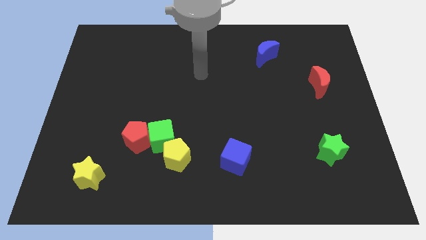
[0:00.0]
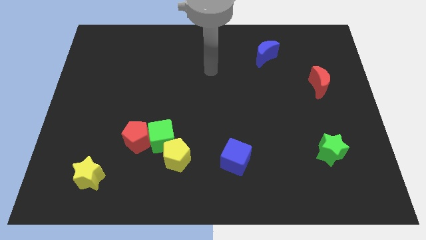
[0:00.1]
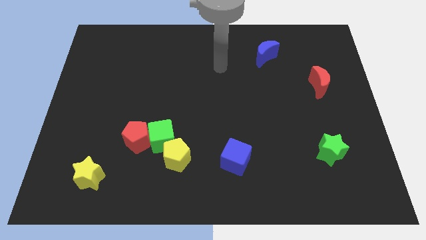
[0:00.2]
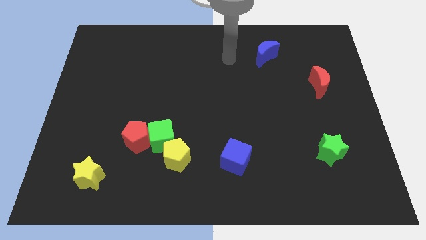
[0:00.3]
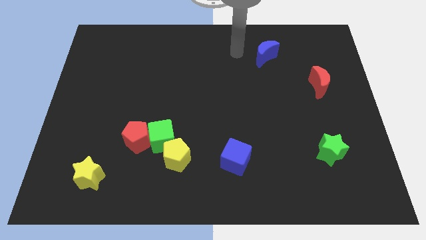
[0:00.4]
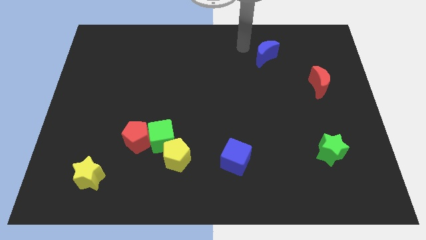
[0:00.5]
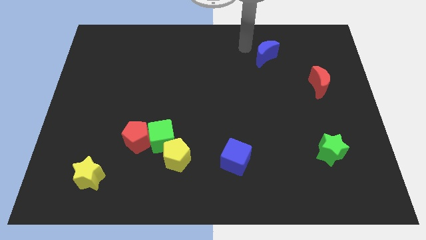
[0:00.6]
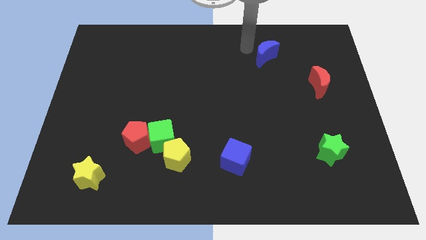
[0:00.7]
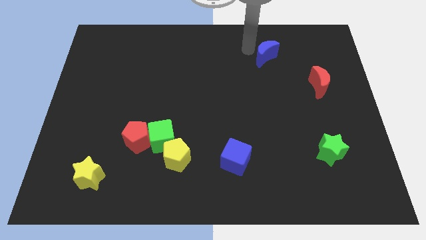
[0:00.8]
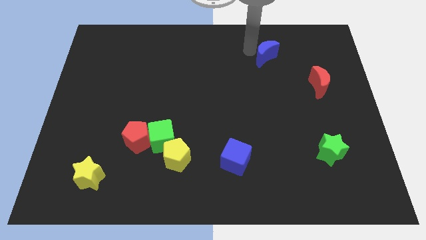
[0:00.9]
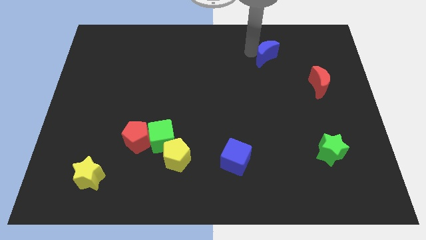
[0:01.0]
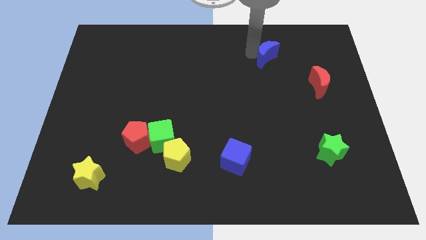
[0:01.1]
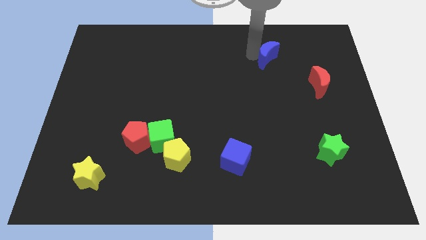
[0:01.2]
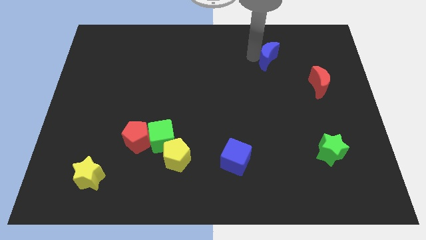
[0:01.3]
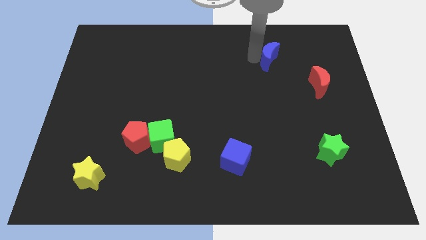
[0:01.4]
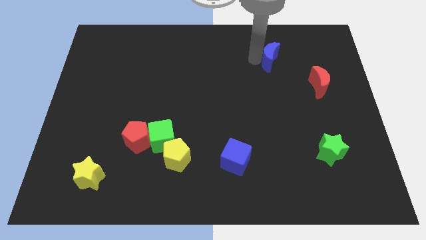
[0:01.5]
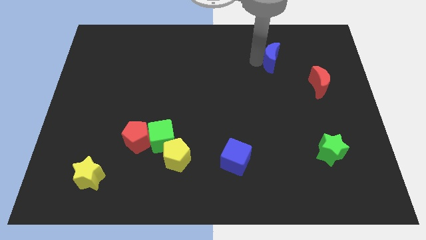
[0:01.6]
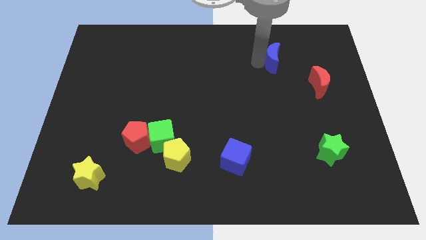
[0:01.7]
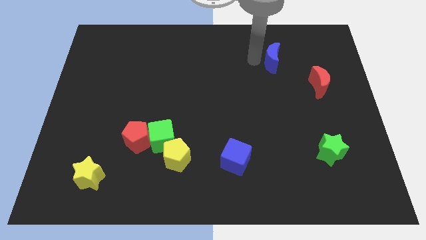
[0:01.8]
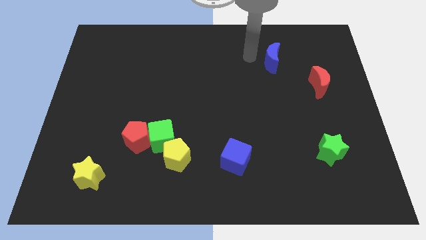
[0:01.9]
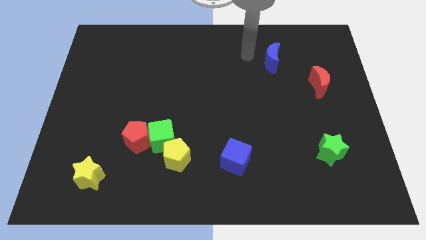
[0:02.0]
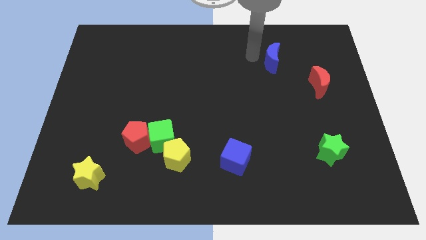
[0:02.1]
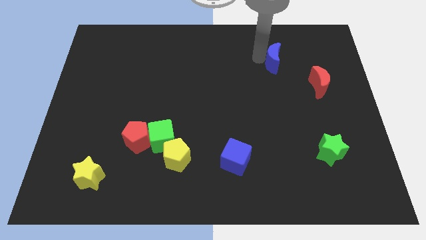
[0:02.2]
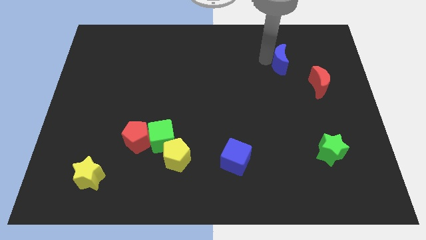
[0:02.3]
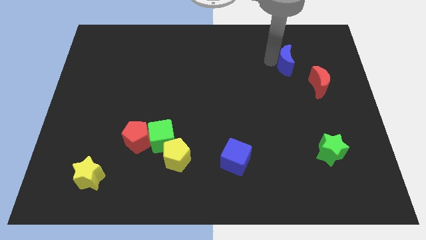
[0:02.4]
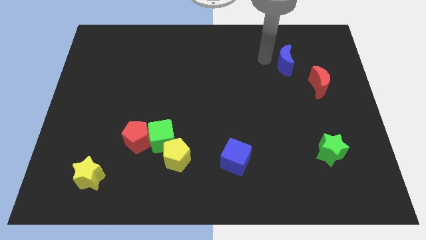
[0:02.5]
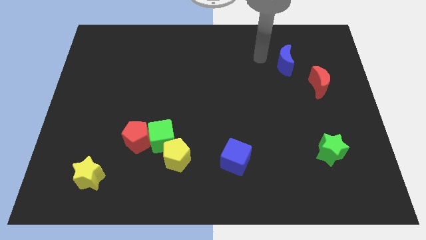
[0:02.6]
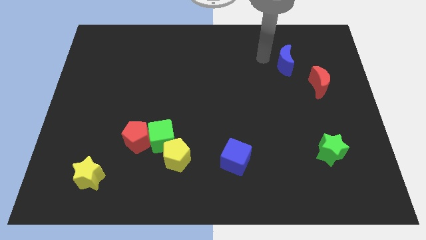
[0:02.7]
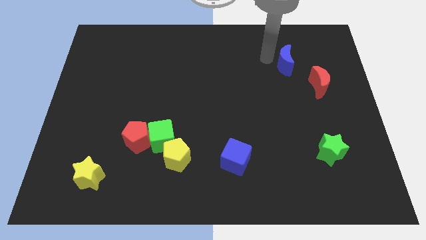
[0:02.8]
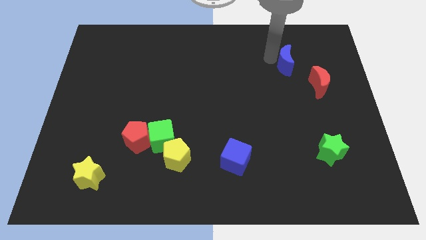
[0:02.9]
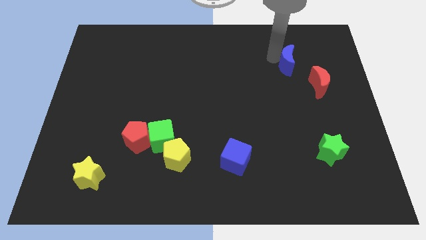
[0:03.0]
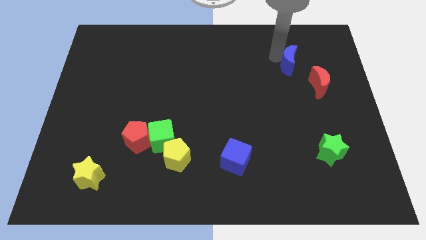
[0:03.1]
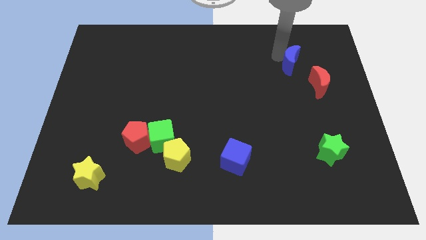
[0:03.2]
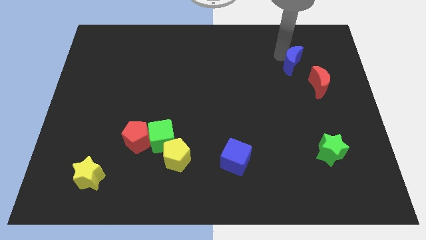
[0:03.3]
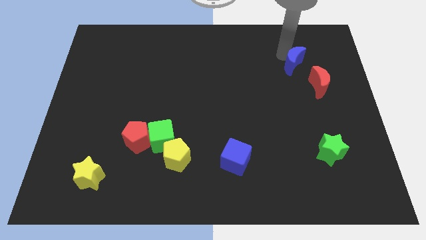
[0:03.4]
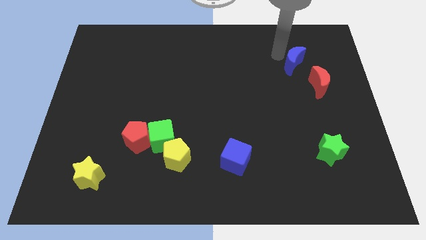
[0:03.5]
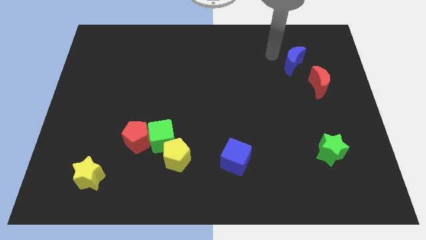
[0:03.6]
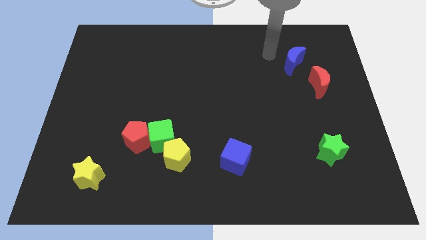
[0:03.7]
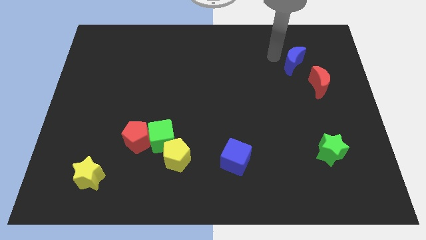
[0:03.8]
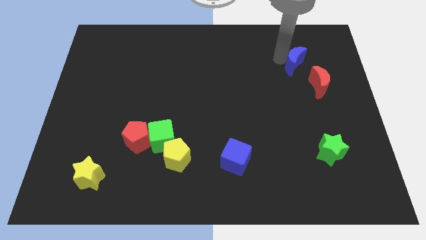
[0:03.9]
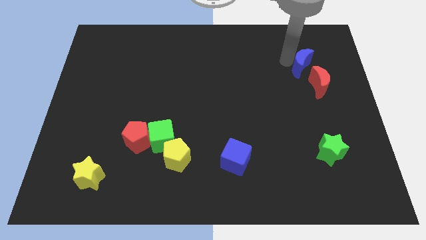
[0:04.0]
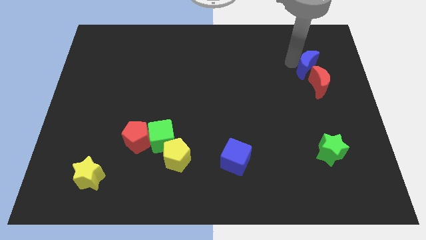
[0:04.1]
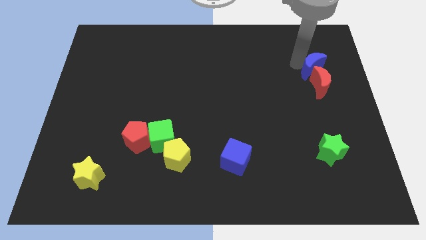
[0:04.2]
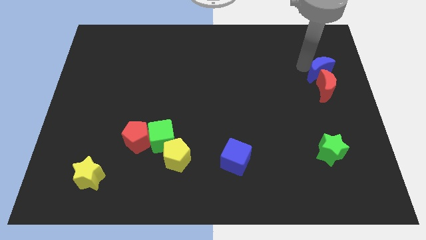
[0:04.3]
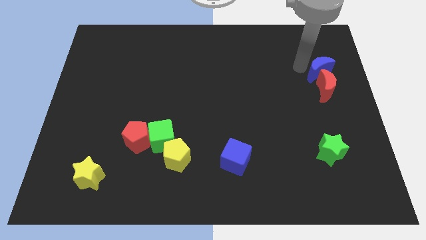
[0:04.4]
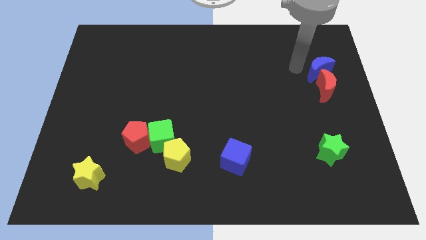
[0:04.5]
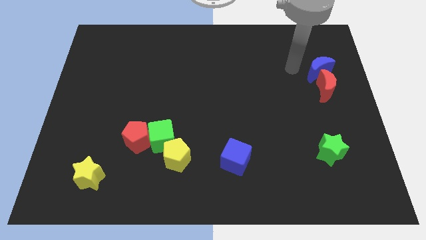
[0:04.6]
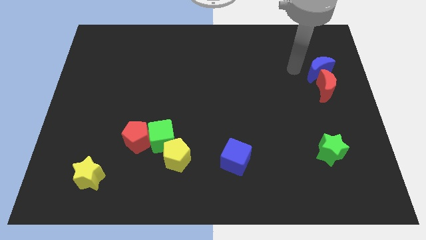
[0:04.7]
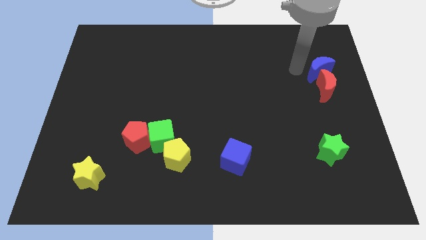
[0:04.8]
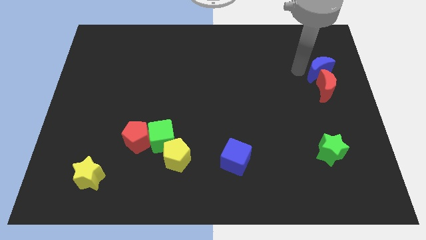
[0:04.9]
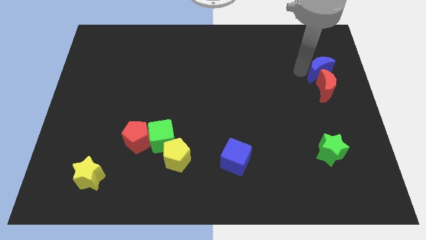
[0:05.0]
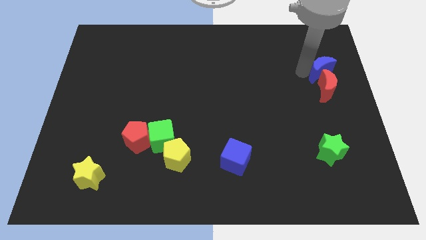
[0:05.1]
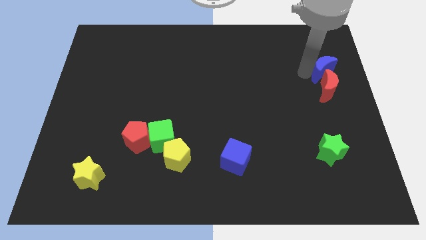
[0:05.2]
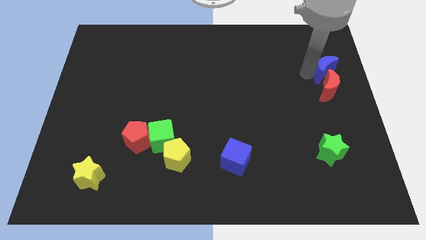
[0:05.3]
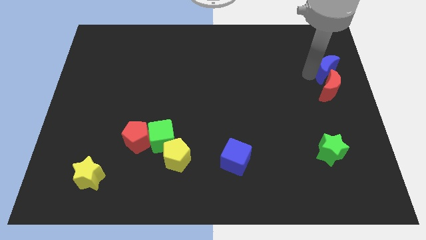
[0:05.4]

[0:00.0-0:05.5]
slide the blue moon to the right side of the board

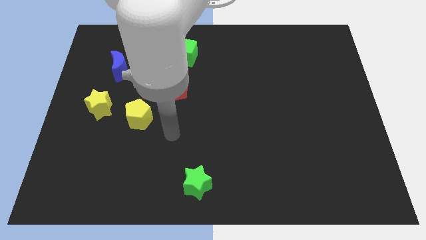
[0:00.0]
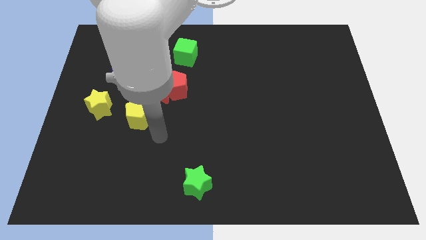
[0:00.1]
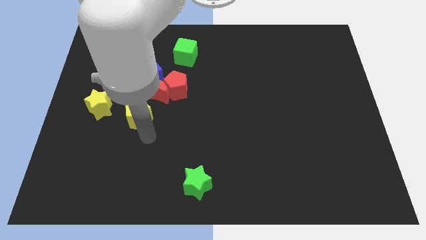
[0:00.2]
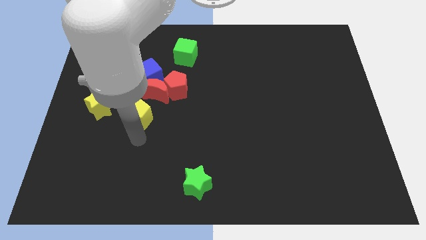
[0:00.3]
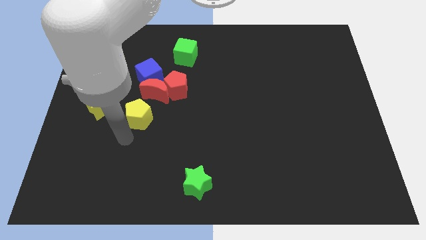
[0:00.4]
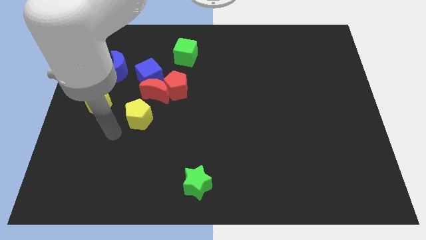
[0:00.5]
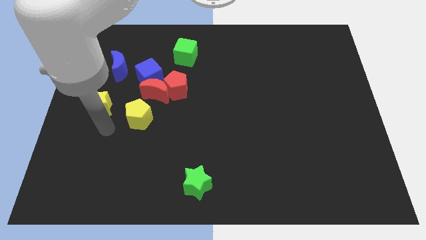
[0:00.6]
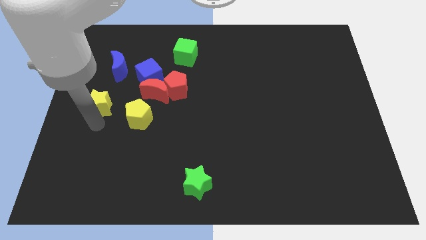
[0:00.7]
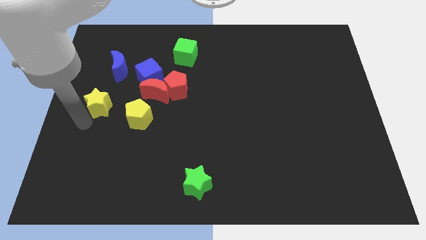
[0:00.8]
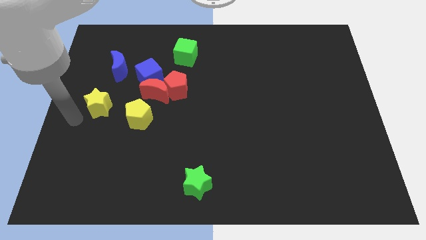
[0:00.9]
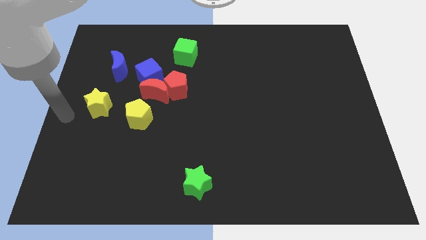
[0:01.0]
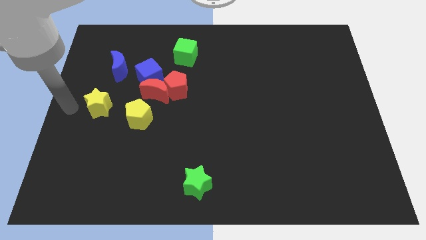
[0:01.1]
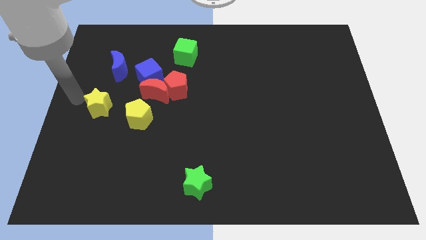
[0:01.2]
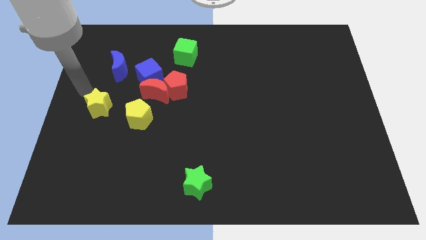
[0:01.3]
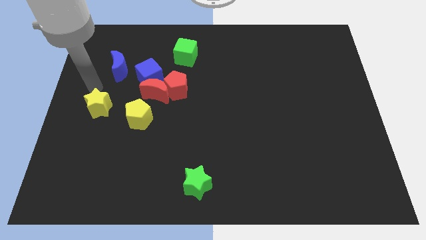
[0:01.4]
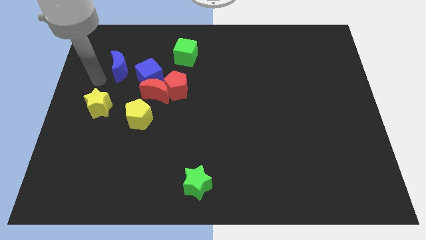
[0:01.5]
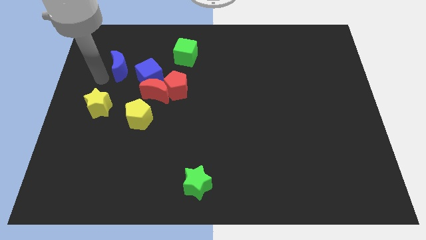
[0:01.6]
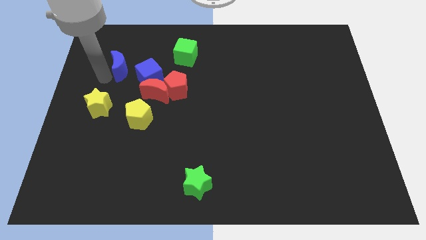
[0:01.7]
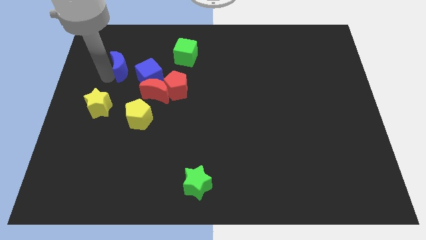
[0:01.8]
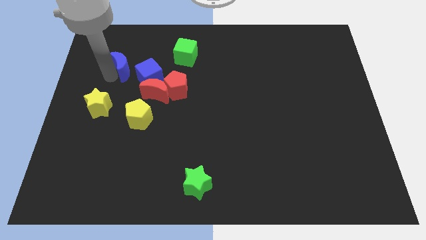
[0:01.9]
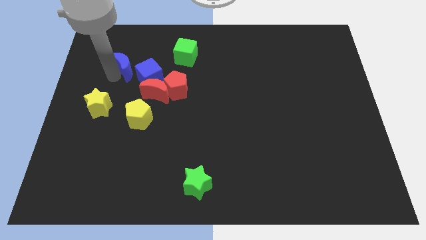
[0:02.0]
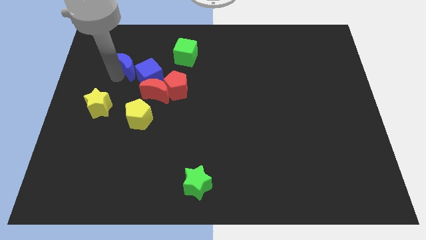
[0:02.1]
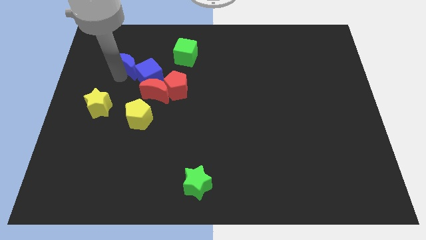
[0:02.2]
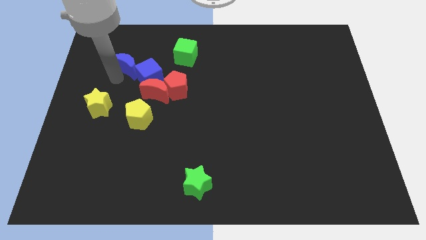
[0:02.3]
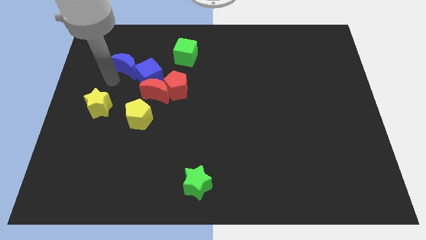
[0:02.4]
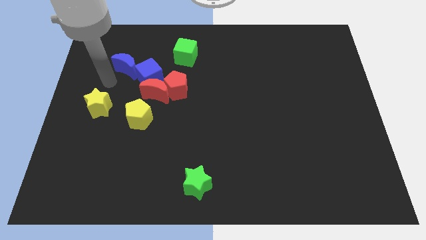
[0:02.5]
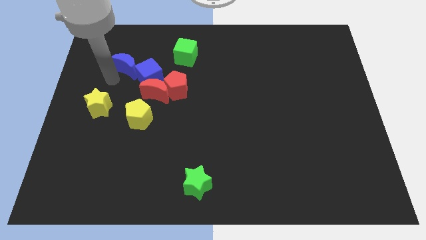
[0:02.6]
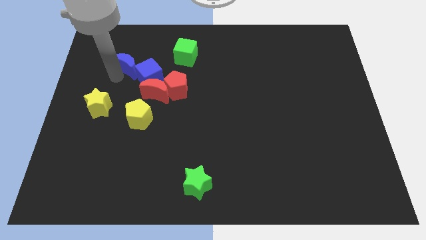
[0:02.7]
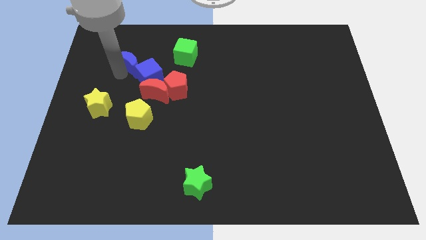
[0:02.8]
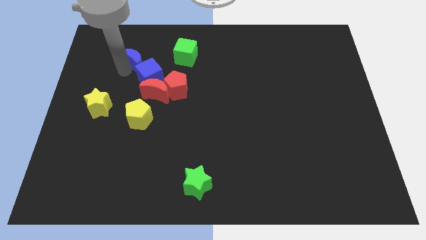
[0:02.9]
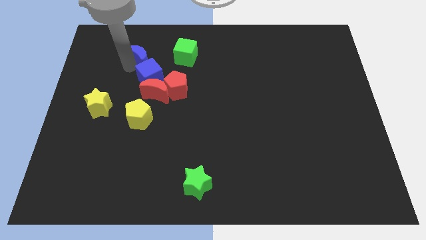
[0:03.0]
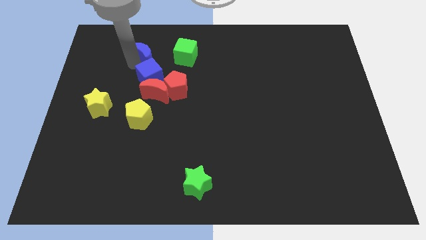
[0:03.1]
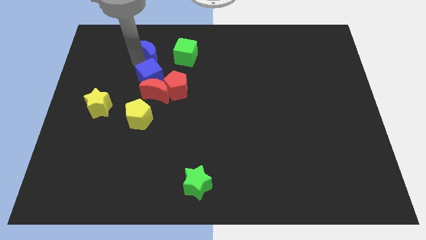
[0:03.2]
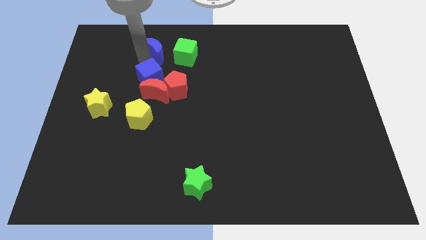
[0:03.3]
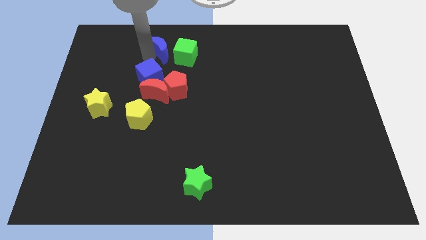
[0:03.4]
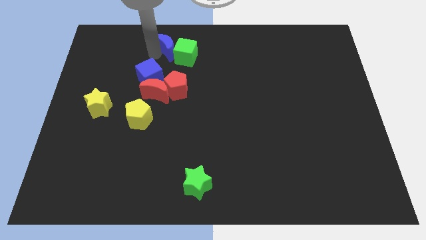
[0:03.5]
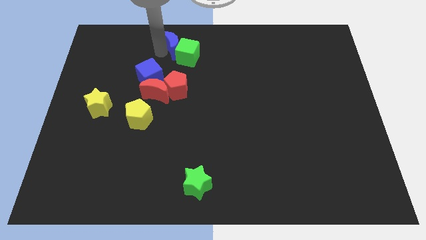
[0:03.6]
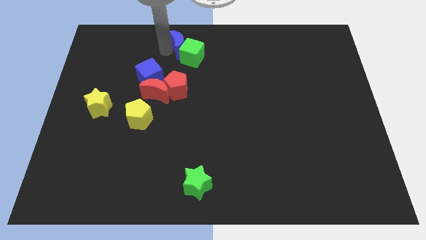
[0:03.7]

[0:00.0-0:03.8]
push the blue moon to the towards your base
